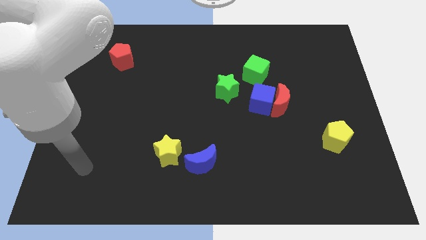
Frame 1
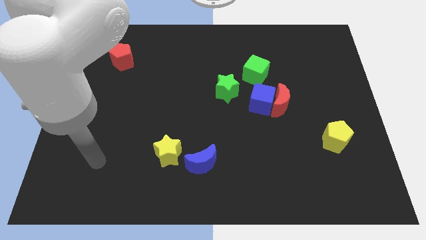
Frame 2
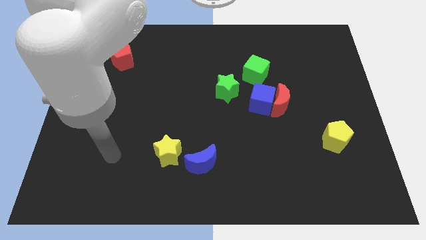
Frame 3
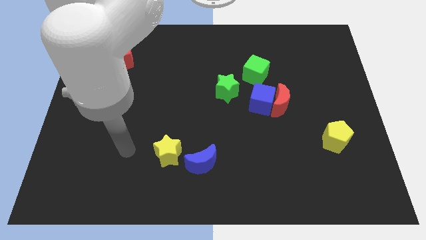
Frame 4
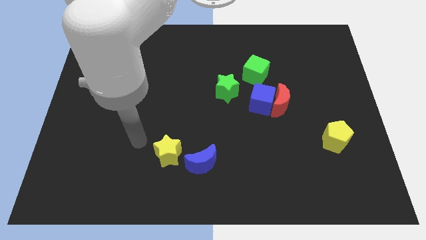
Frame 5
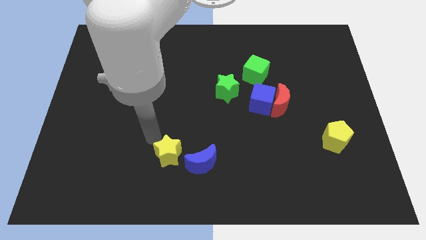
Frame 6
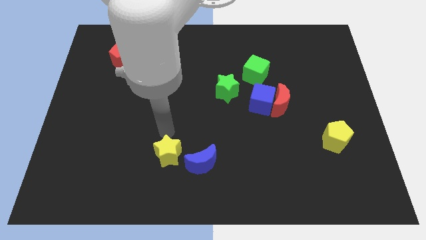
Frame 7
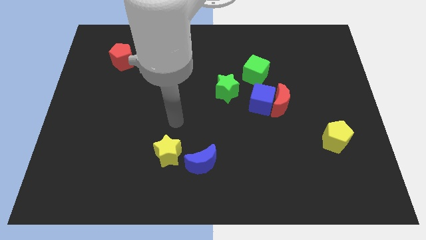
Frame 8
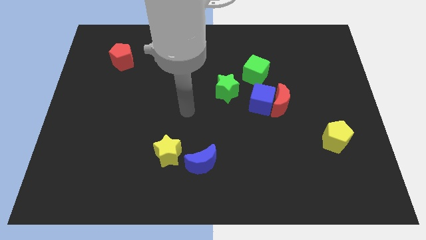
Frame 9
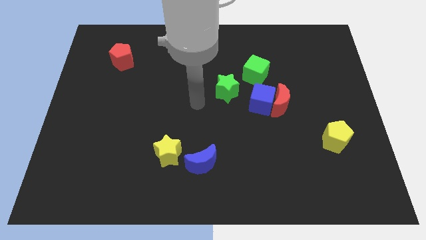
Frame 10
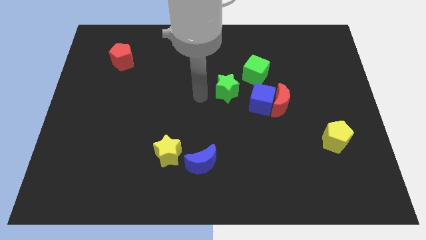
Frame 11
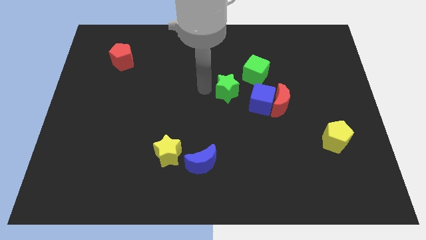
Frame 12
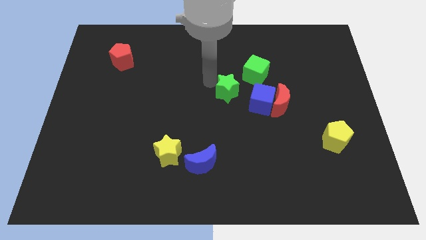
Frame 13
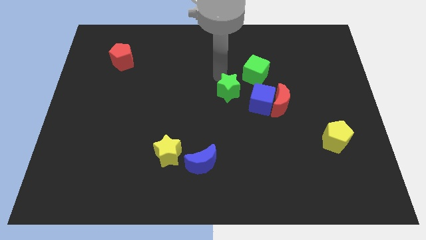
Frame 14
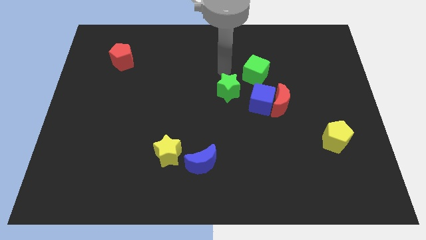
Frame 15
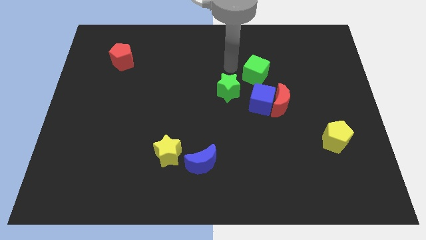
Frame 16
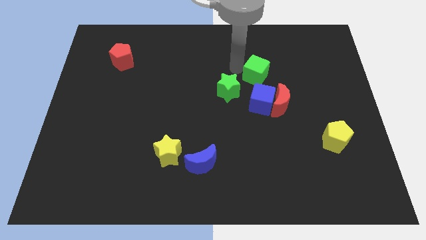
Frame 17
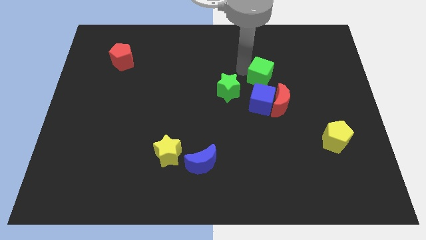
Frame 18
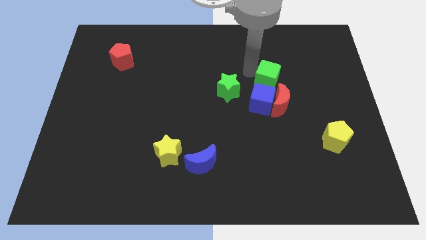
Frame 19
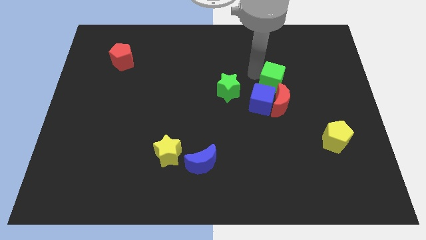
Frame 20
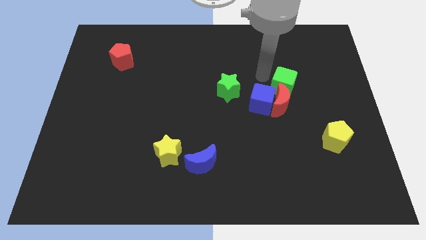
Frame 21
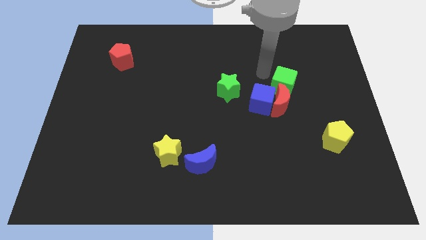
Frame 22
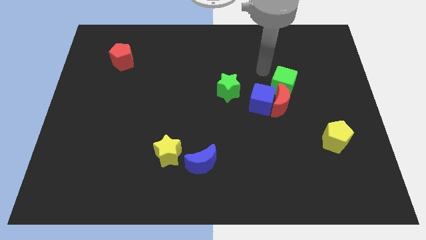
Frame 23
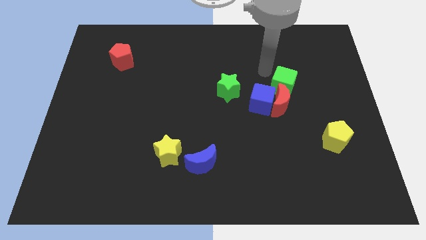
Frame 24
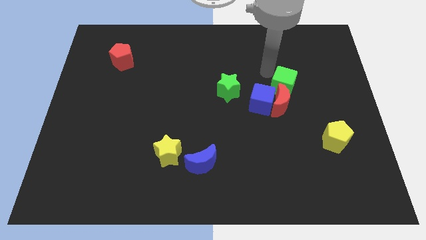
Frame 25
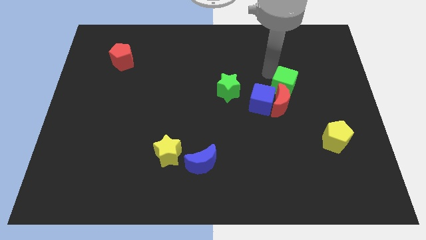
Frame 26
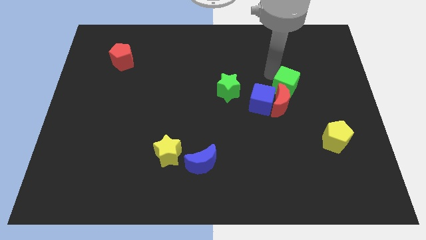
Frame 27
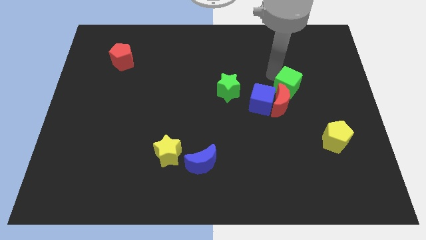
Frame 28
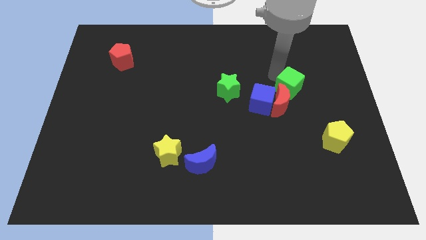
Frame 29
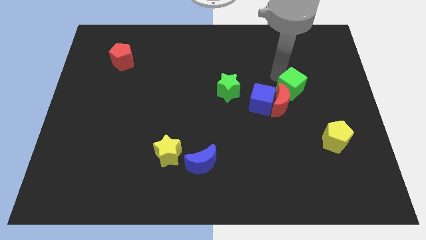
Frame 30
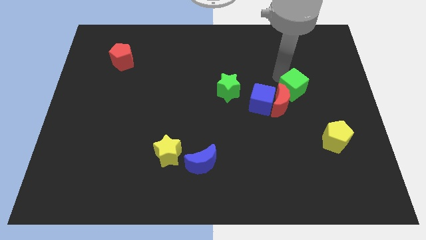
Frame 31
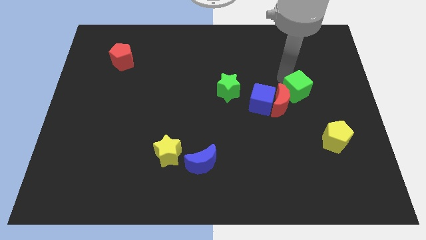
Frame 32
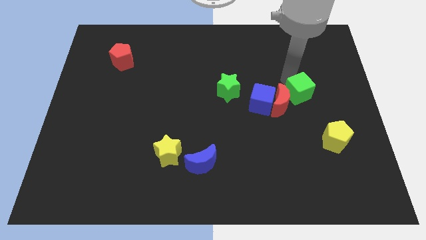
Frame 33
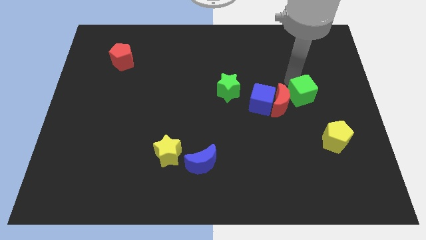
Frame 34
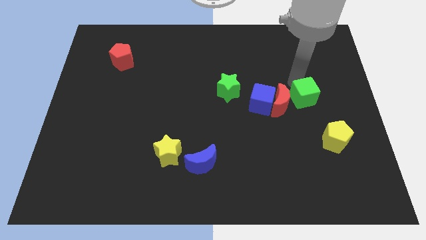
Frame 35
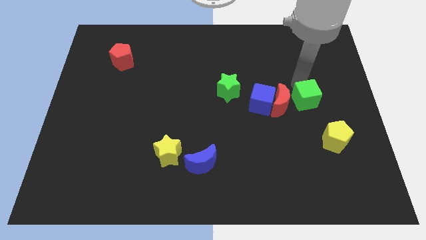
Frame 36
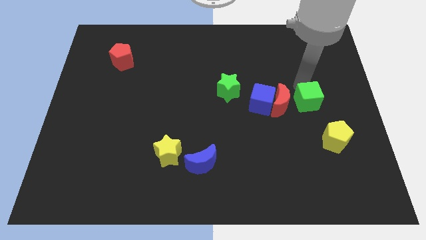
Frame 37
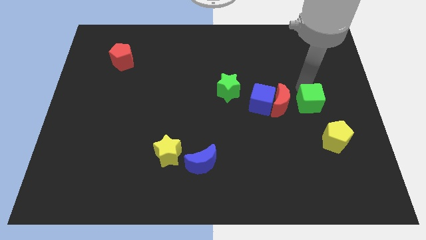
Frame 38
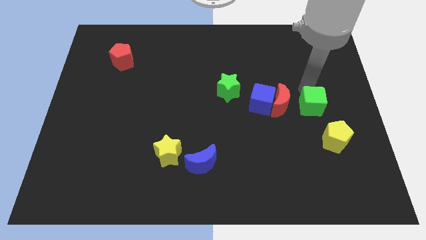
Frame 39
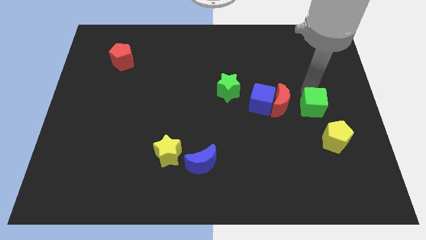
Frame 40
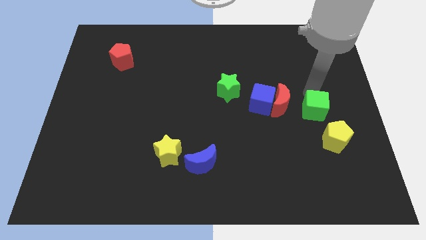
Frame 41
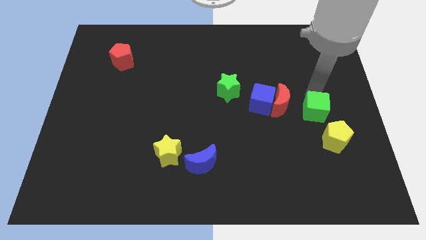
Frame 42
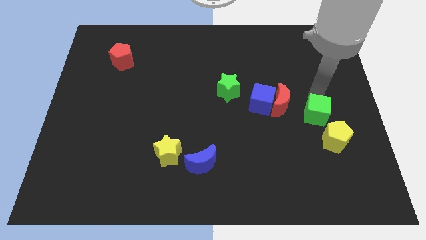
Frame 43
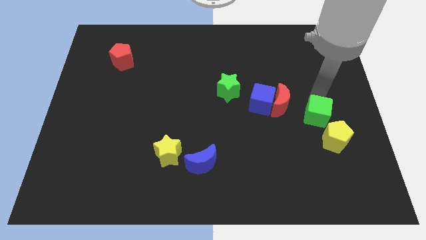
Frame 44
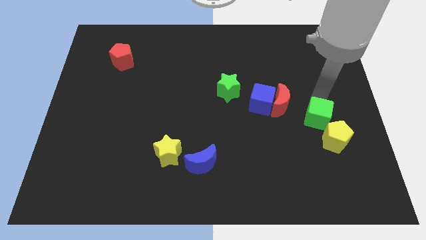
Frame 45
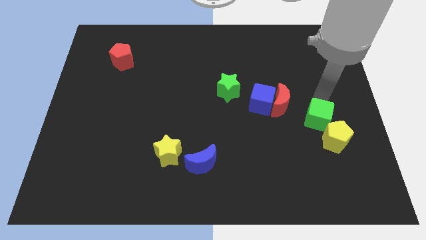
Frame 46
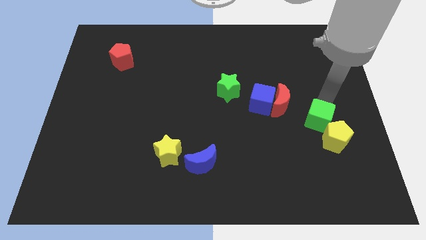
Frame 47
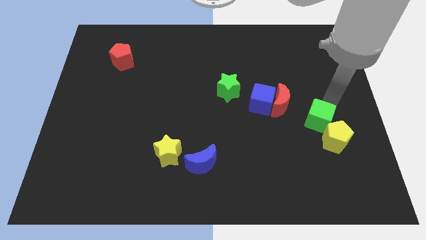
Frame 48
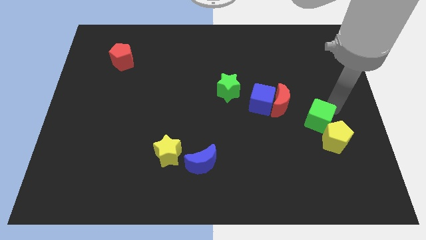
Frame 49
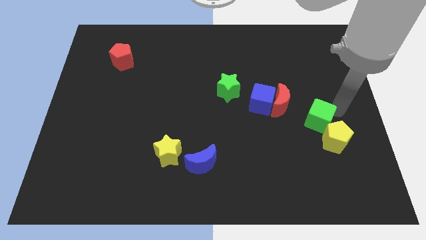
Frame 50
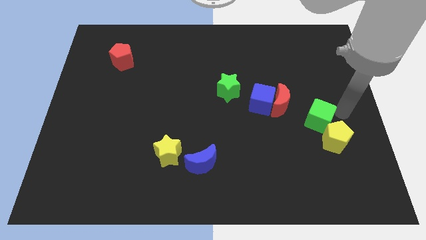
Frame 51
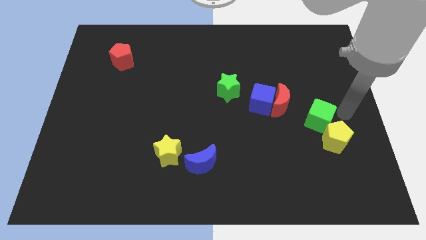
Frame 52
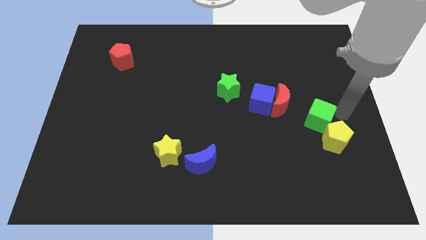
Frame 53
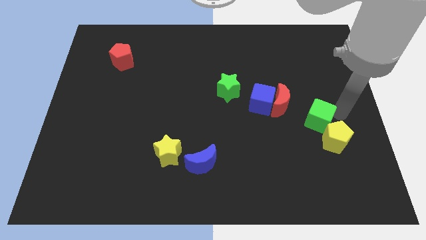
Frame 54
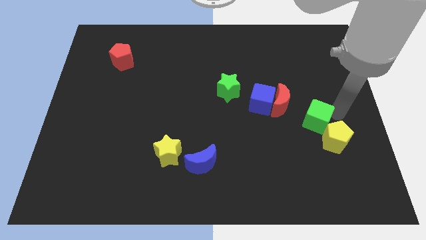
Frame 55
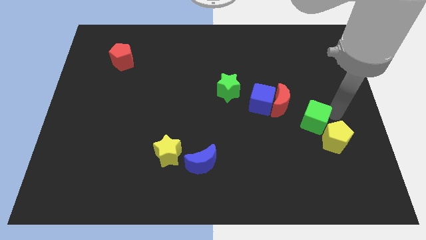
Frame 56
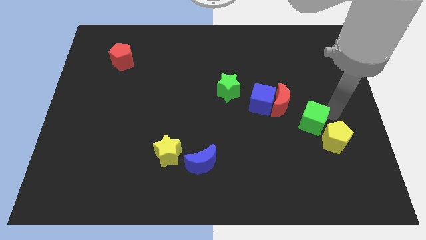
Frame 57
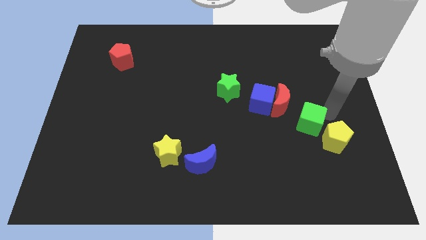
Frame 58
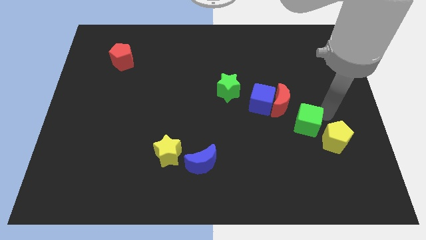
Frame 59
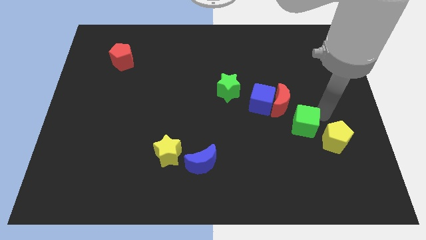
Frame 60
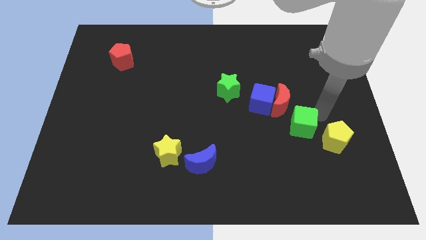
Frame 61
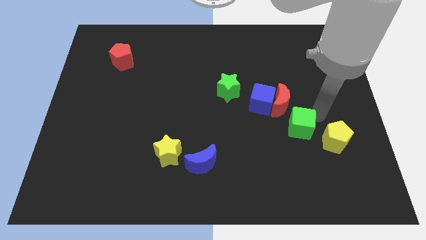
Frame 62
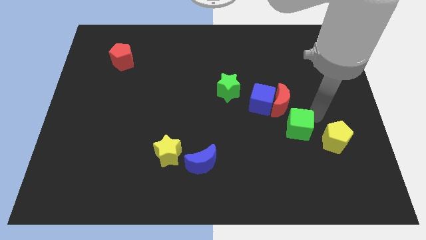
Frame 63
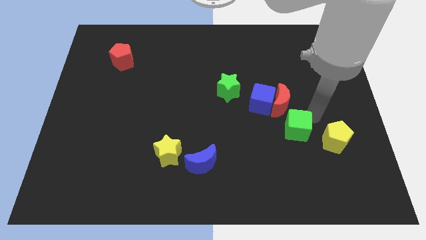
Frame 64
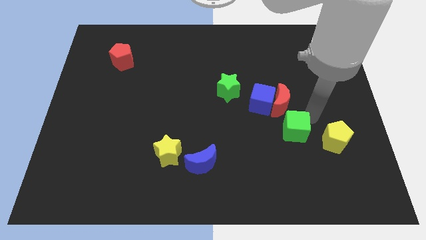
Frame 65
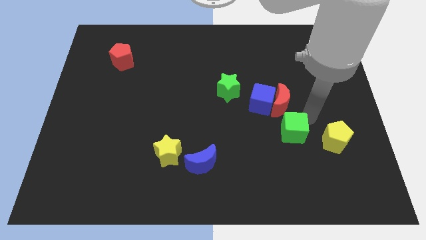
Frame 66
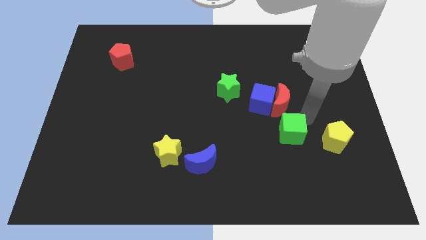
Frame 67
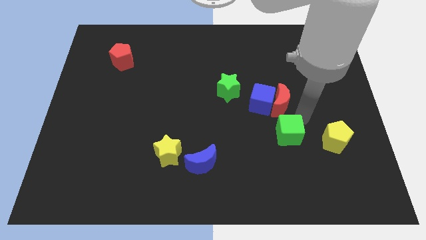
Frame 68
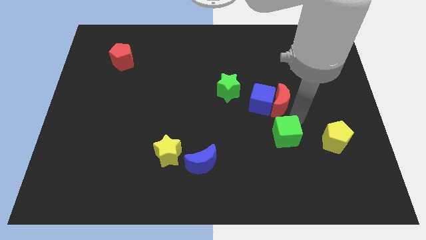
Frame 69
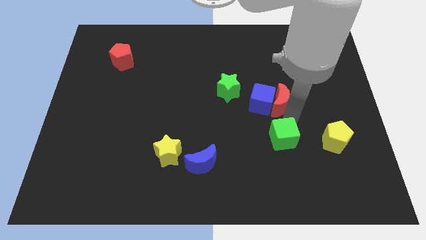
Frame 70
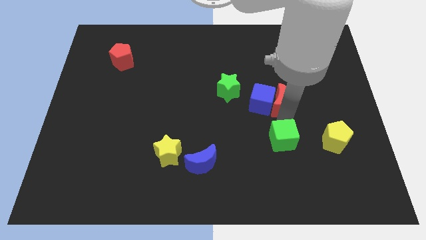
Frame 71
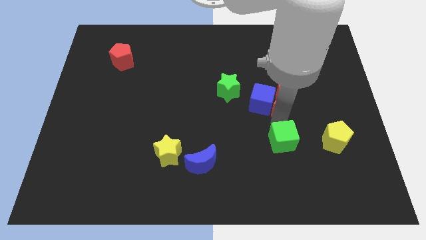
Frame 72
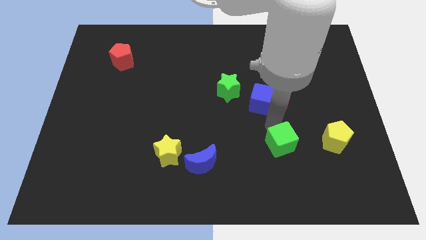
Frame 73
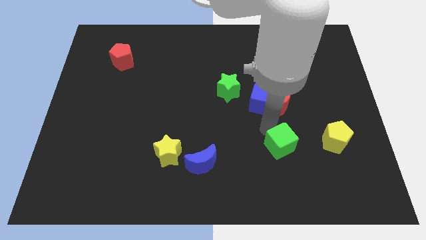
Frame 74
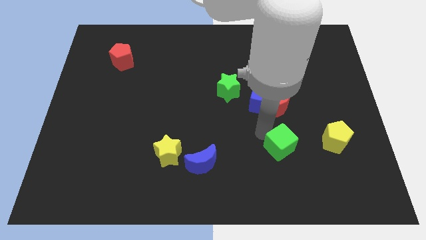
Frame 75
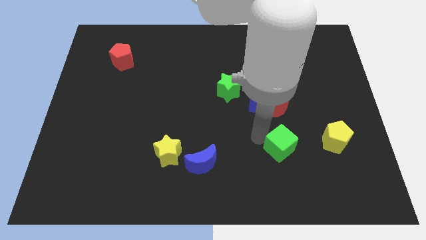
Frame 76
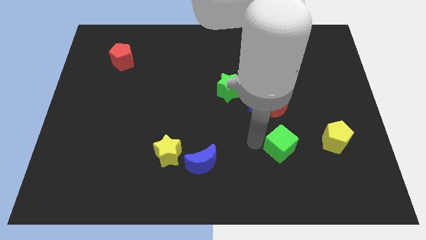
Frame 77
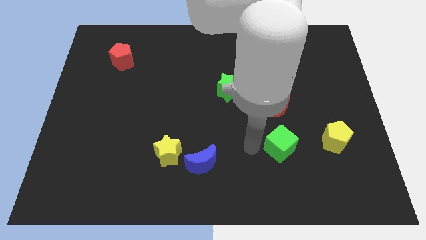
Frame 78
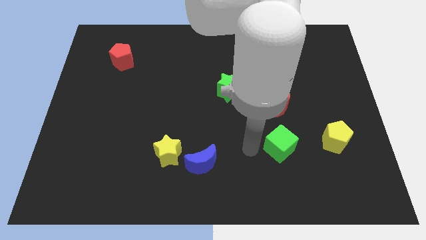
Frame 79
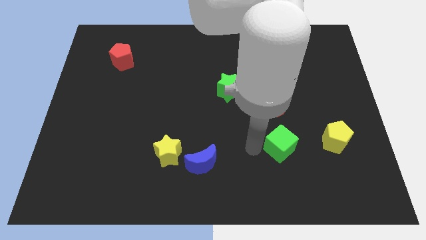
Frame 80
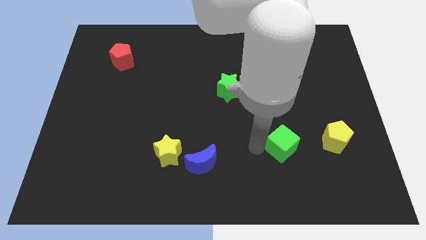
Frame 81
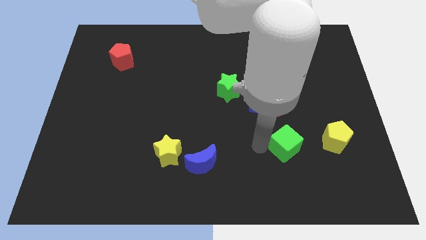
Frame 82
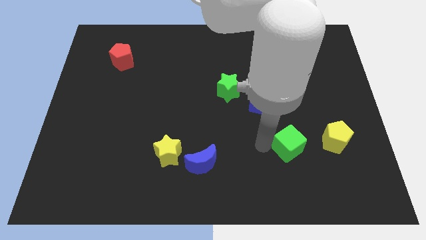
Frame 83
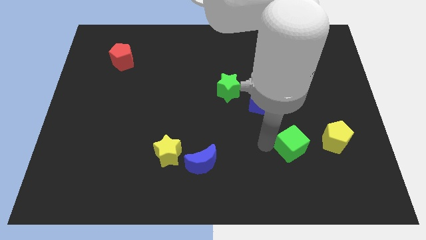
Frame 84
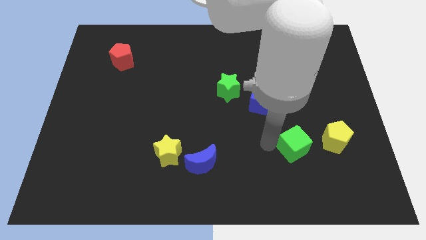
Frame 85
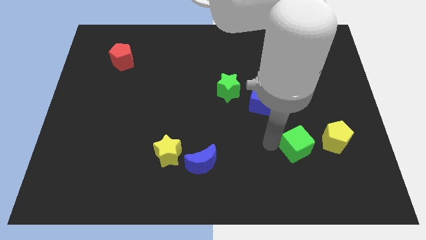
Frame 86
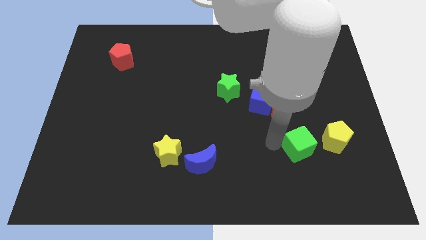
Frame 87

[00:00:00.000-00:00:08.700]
move the green cube to the bottom left side of the yellow pentagon
